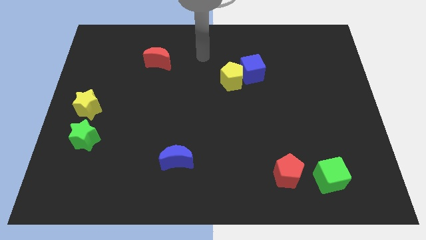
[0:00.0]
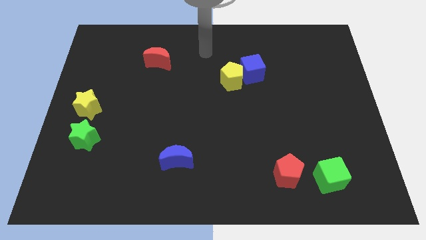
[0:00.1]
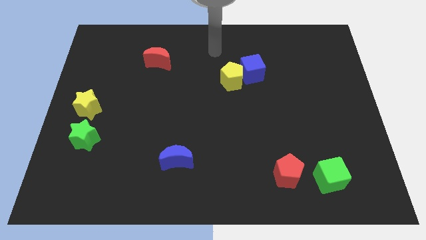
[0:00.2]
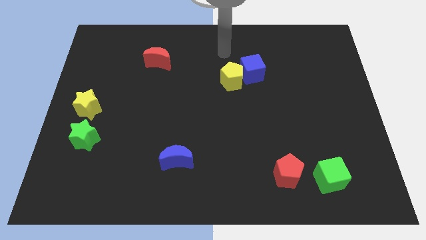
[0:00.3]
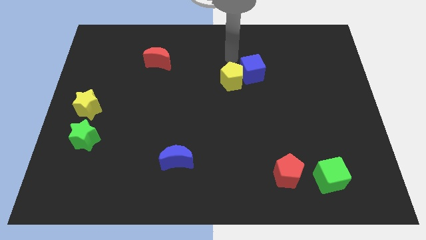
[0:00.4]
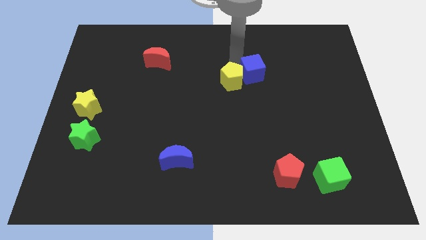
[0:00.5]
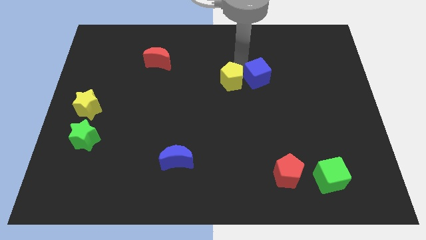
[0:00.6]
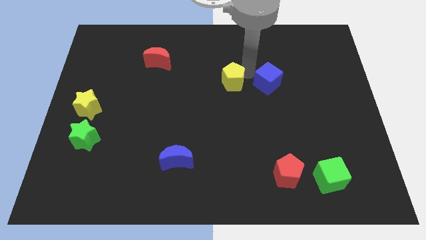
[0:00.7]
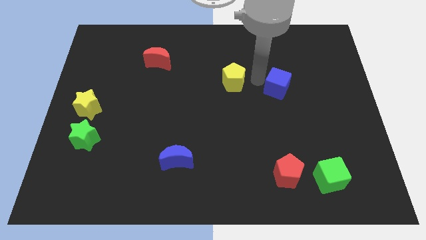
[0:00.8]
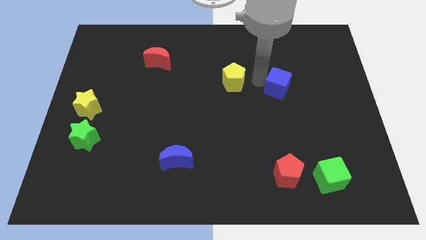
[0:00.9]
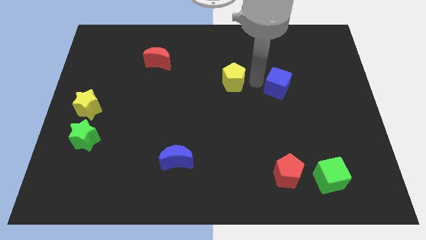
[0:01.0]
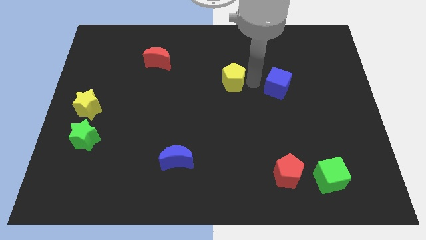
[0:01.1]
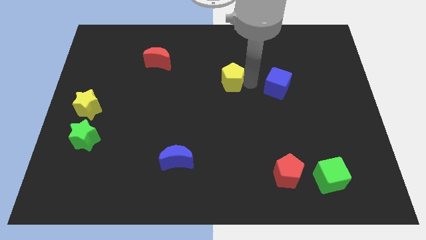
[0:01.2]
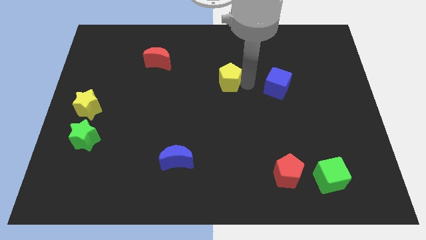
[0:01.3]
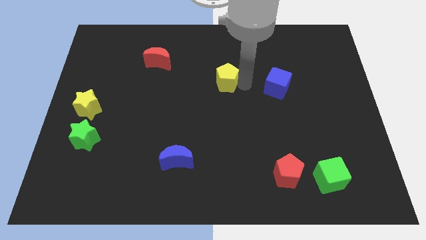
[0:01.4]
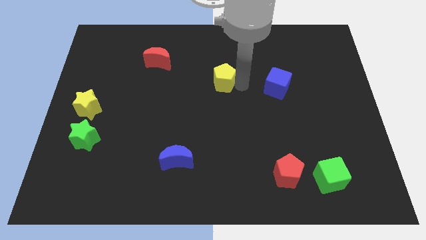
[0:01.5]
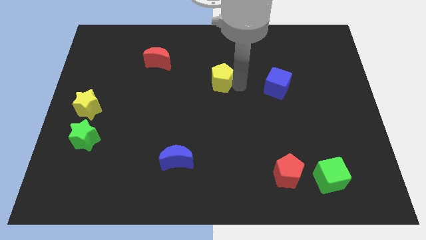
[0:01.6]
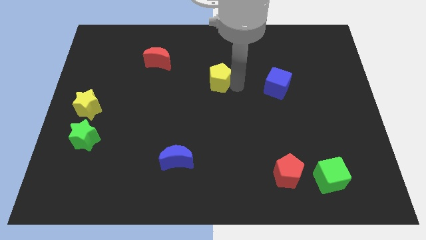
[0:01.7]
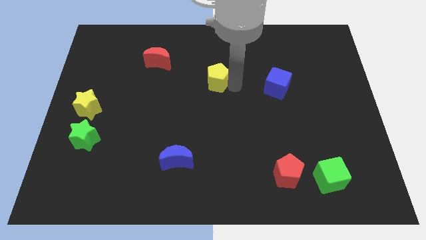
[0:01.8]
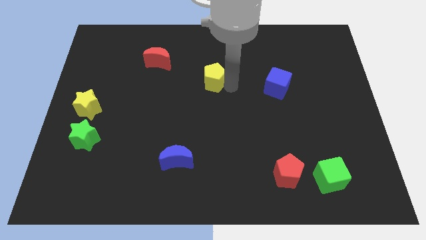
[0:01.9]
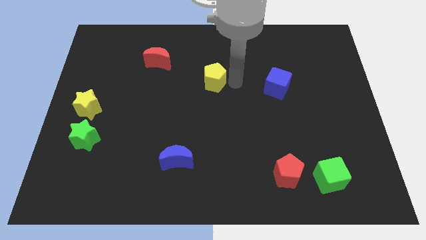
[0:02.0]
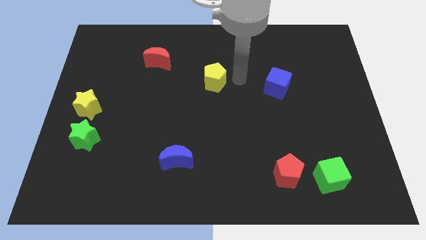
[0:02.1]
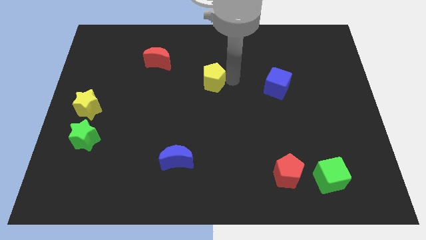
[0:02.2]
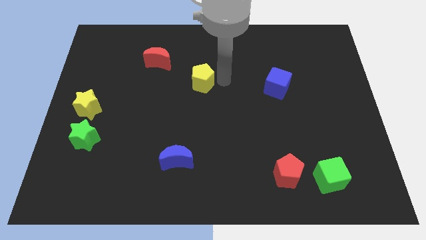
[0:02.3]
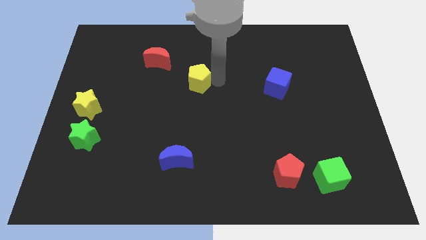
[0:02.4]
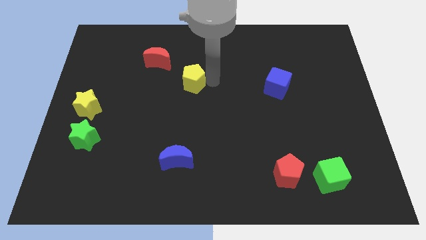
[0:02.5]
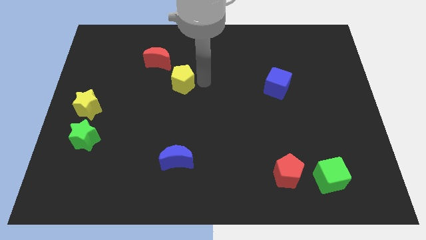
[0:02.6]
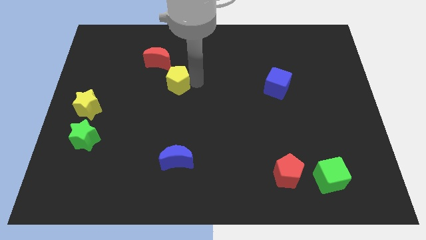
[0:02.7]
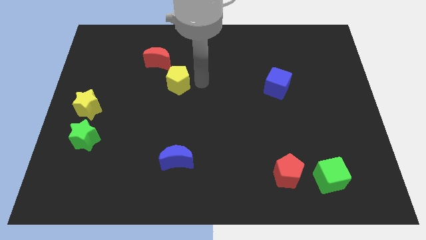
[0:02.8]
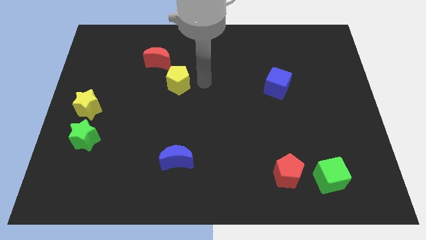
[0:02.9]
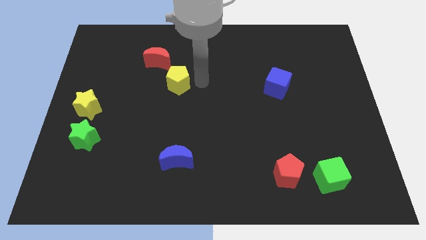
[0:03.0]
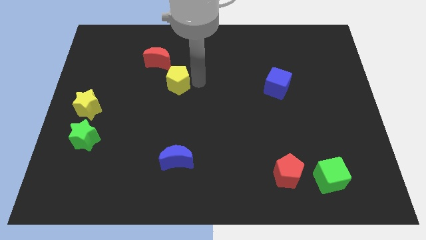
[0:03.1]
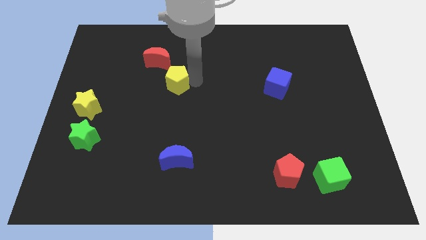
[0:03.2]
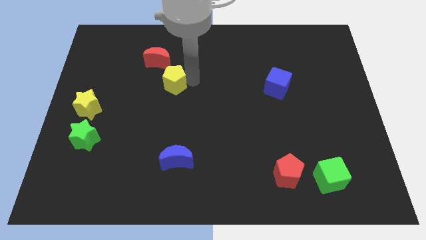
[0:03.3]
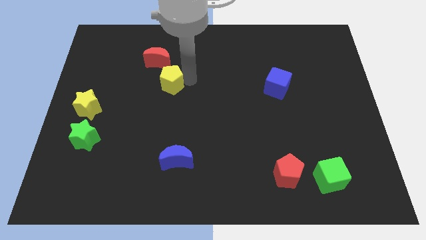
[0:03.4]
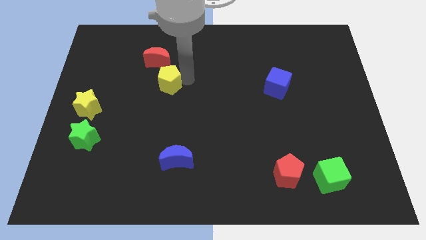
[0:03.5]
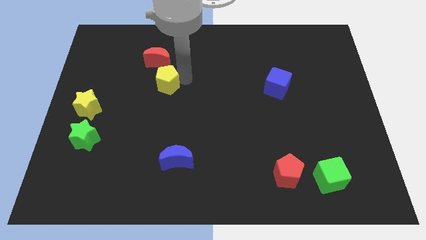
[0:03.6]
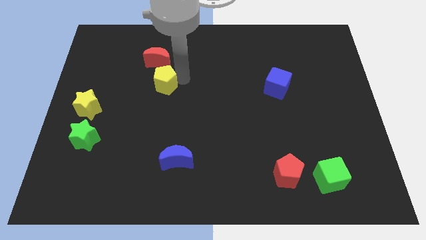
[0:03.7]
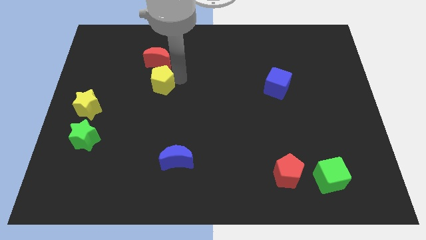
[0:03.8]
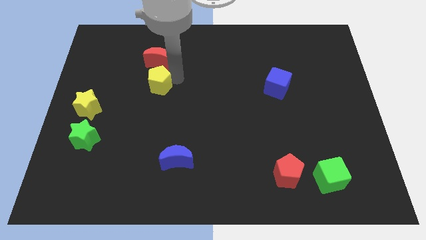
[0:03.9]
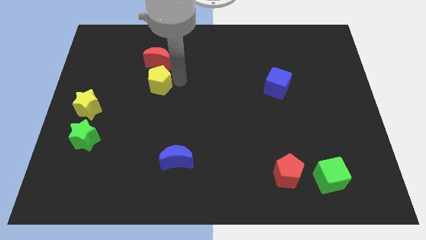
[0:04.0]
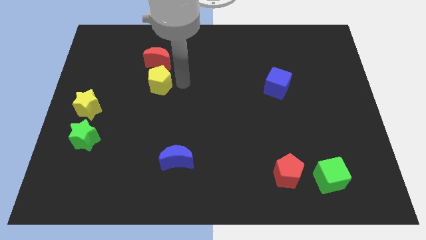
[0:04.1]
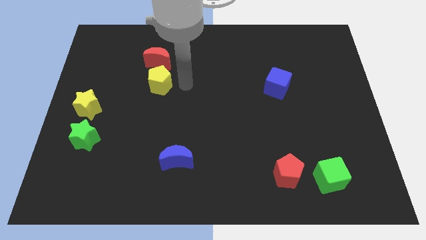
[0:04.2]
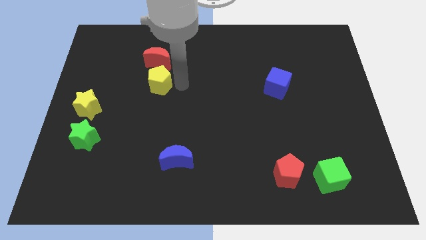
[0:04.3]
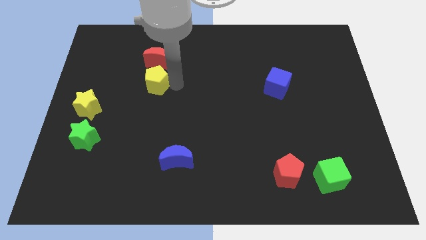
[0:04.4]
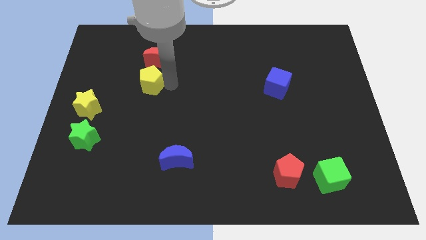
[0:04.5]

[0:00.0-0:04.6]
push the yellow pentagon left

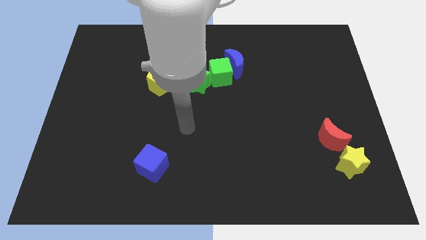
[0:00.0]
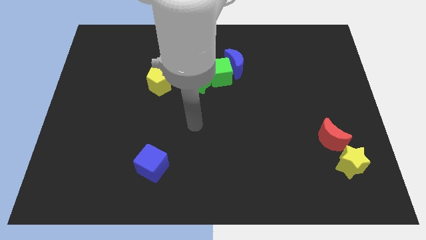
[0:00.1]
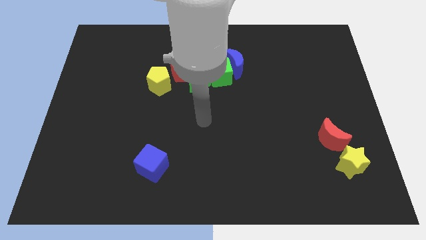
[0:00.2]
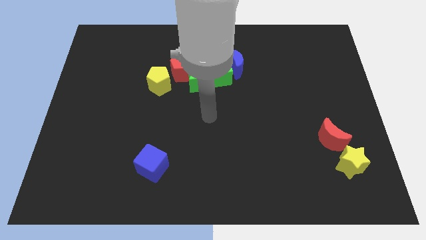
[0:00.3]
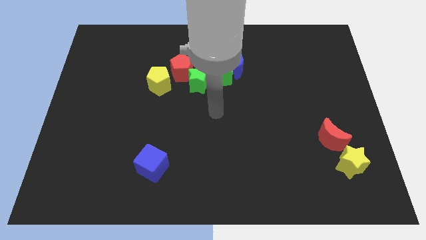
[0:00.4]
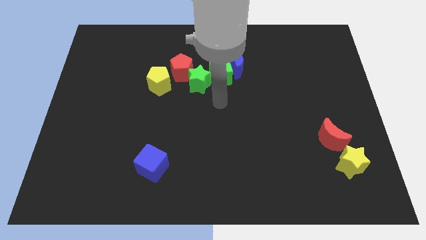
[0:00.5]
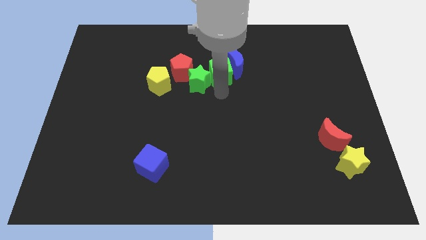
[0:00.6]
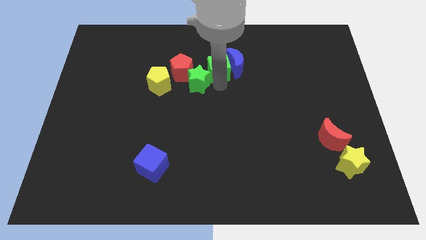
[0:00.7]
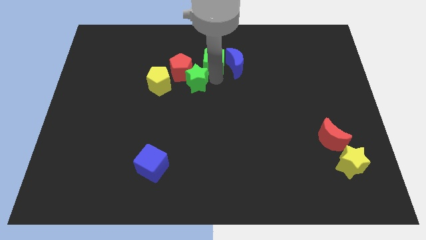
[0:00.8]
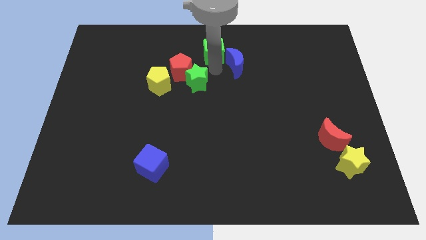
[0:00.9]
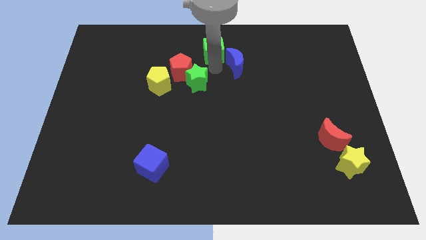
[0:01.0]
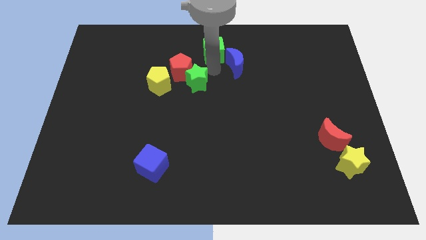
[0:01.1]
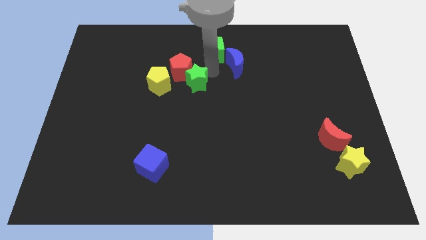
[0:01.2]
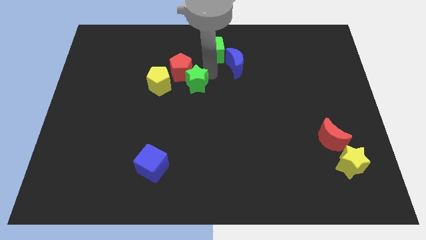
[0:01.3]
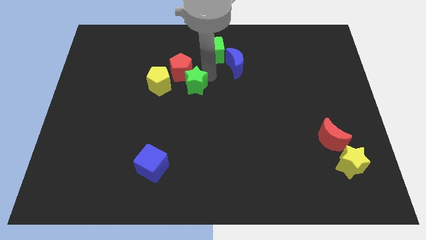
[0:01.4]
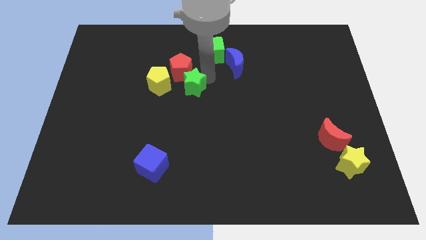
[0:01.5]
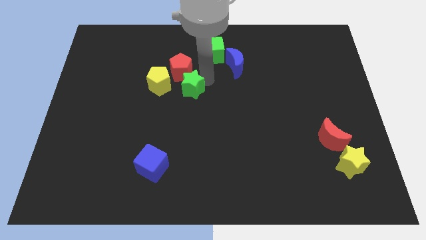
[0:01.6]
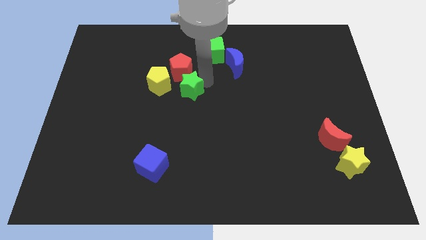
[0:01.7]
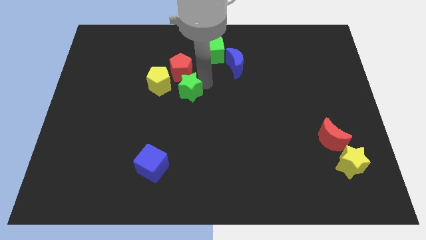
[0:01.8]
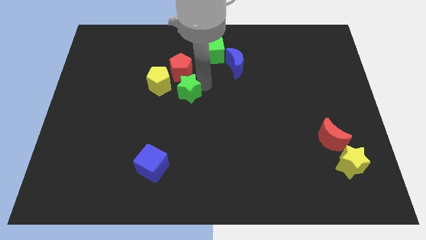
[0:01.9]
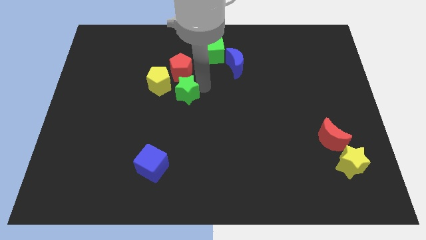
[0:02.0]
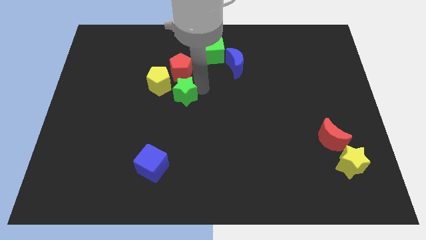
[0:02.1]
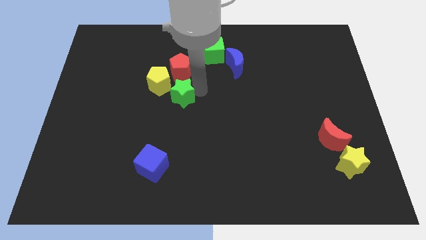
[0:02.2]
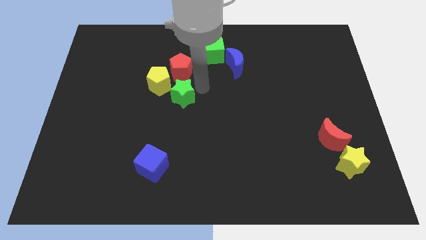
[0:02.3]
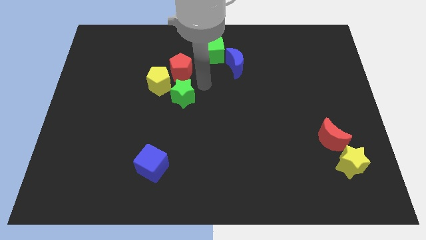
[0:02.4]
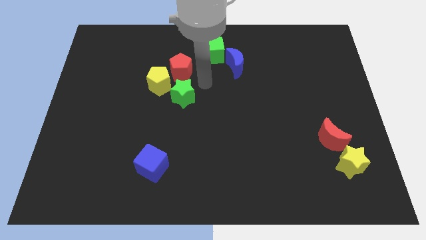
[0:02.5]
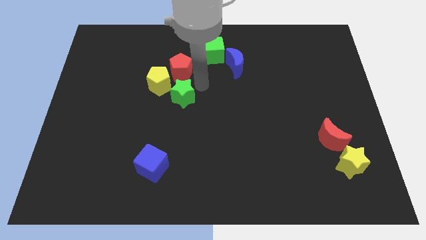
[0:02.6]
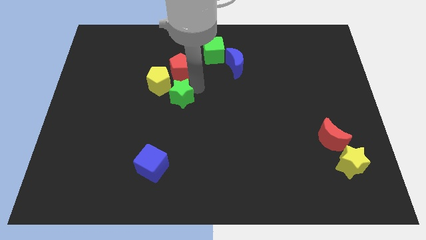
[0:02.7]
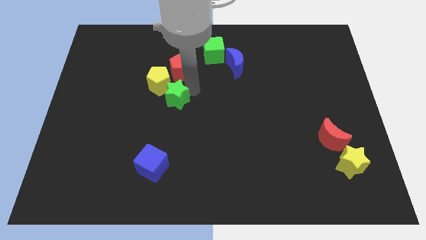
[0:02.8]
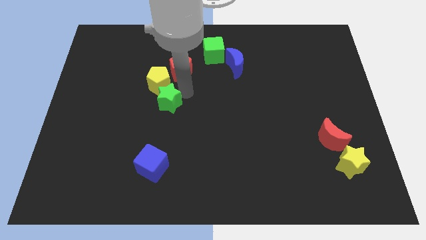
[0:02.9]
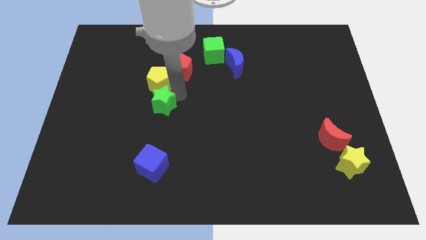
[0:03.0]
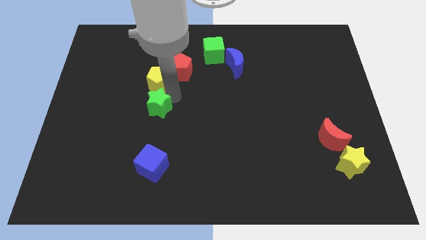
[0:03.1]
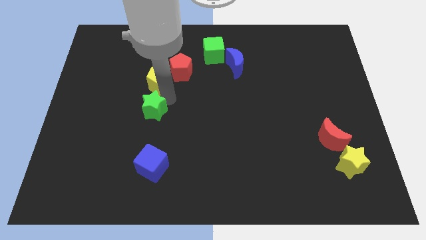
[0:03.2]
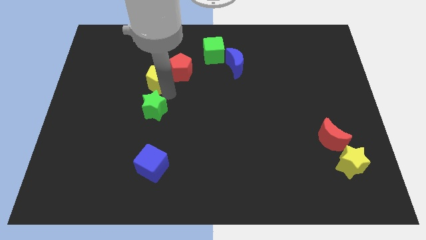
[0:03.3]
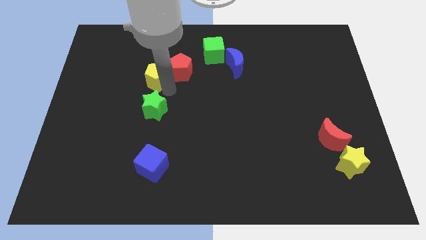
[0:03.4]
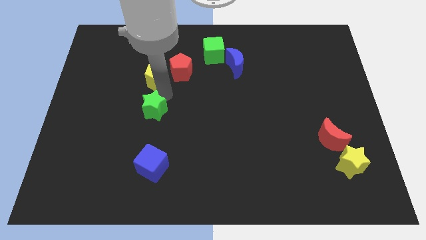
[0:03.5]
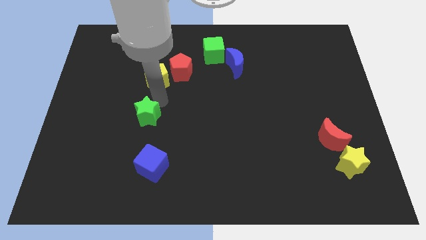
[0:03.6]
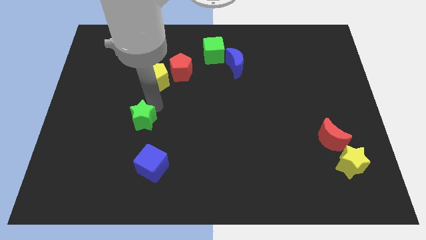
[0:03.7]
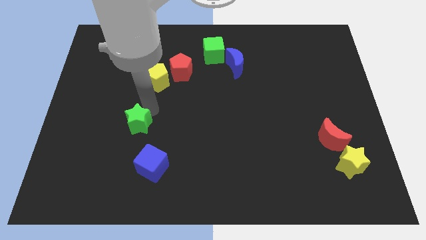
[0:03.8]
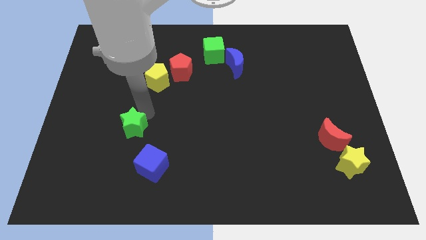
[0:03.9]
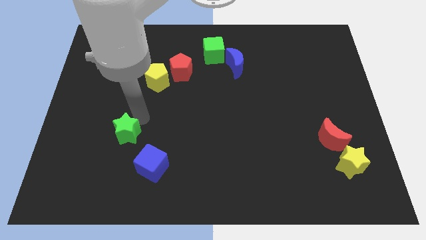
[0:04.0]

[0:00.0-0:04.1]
push the green star down and then left
